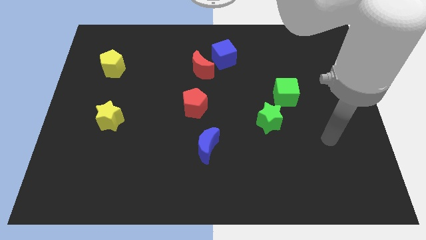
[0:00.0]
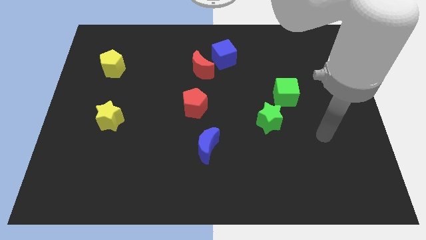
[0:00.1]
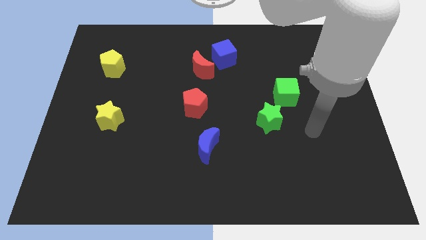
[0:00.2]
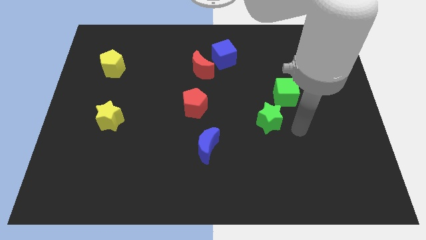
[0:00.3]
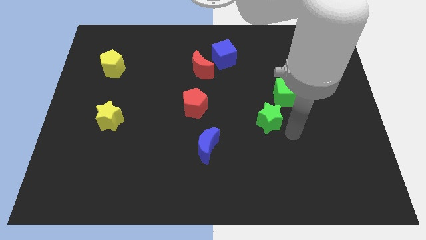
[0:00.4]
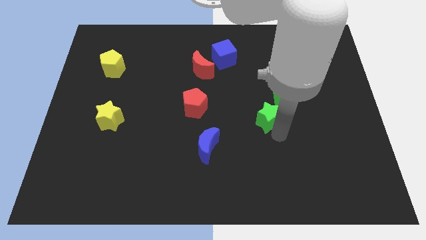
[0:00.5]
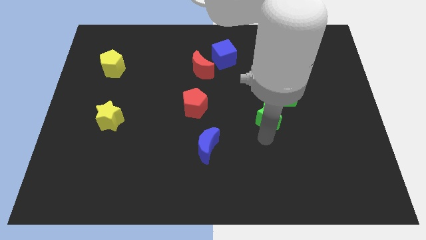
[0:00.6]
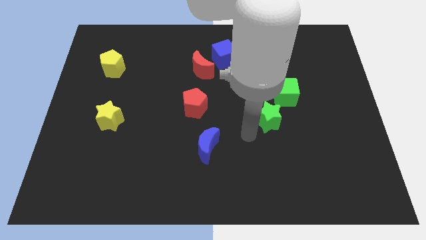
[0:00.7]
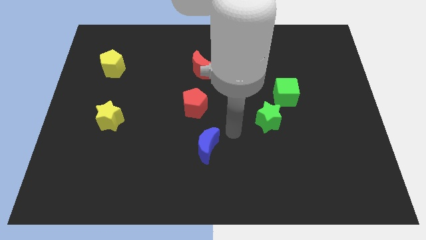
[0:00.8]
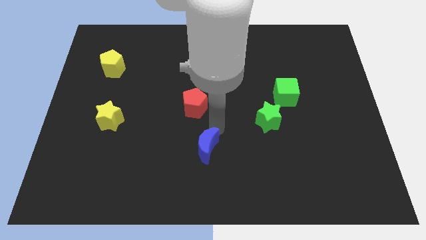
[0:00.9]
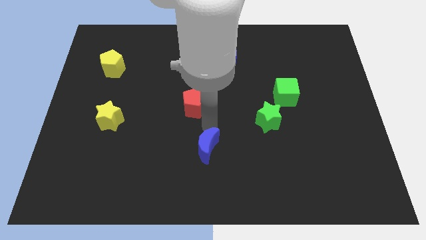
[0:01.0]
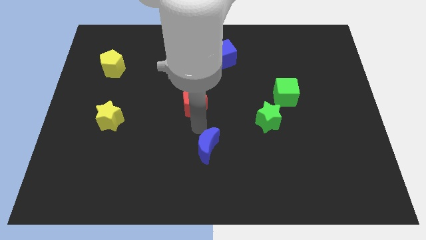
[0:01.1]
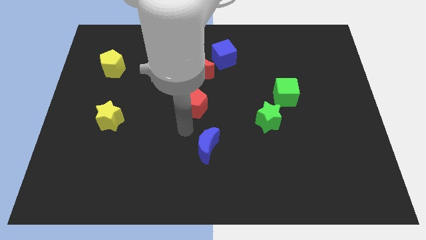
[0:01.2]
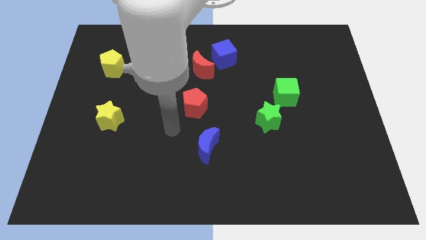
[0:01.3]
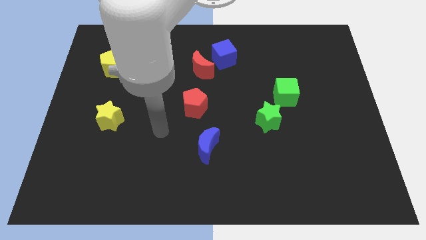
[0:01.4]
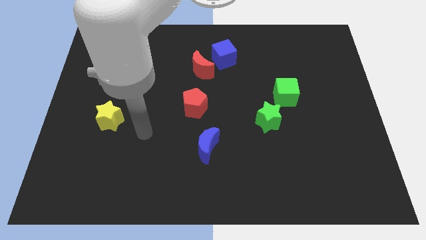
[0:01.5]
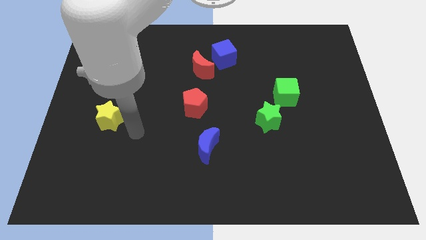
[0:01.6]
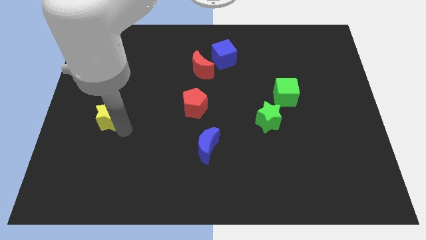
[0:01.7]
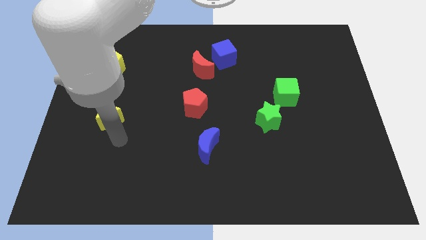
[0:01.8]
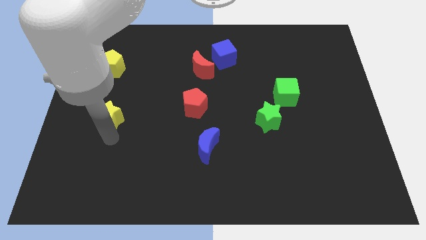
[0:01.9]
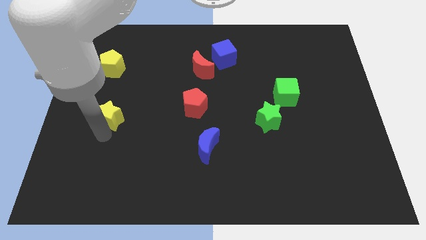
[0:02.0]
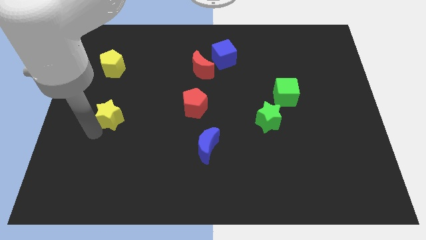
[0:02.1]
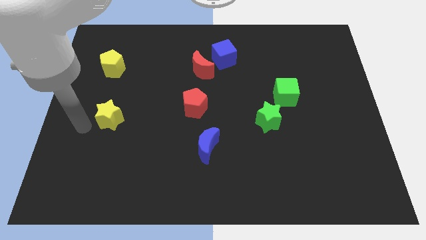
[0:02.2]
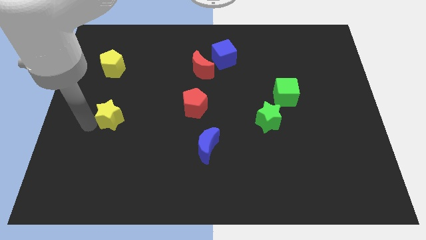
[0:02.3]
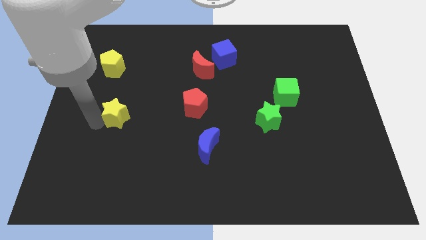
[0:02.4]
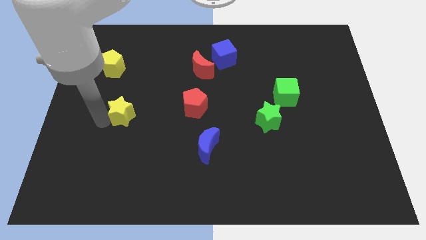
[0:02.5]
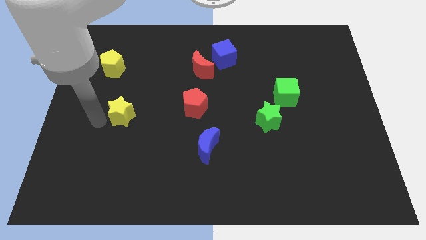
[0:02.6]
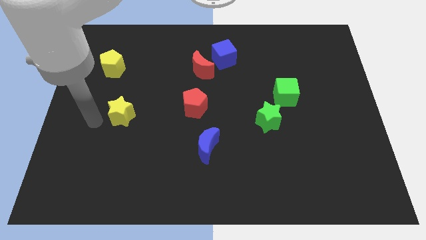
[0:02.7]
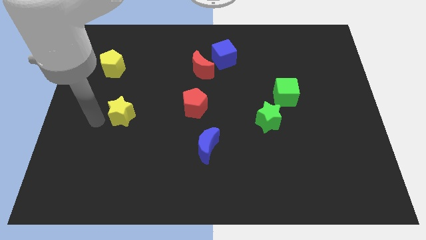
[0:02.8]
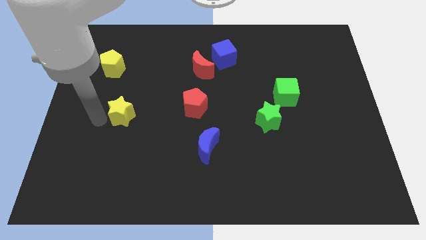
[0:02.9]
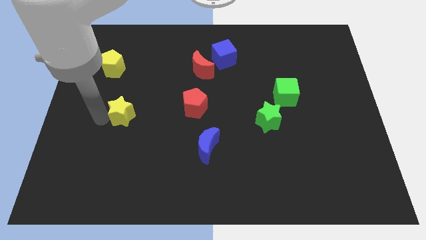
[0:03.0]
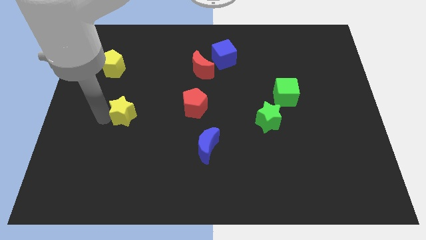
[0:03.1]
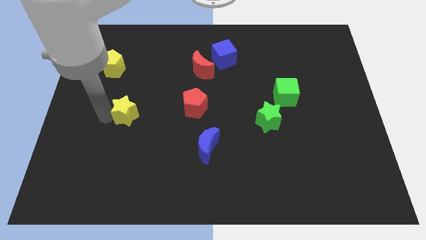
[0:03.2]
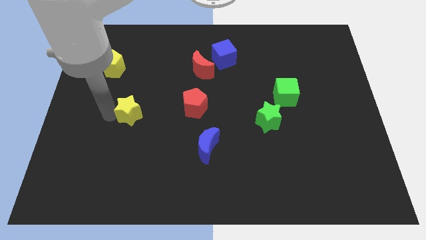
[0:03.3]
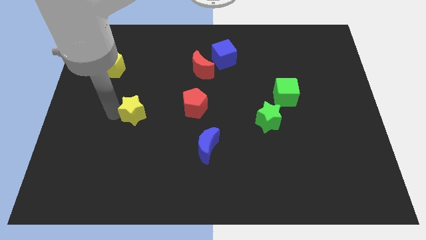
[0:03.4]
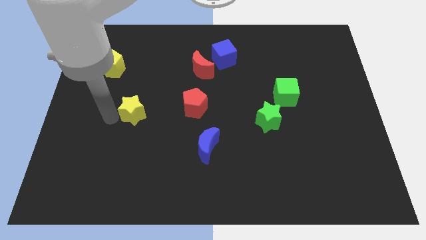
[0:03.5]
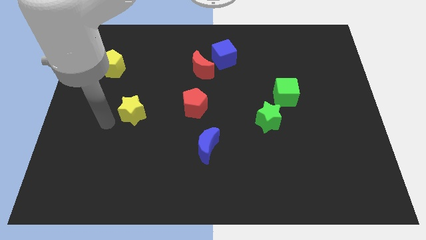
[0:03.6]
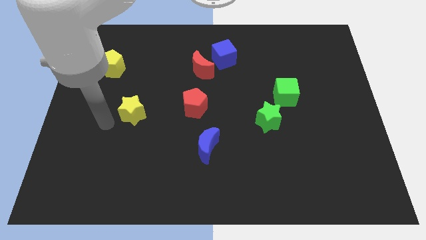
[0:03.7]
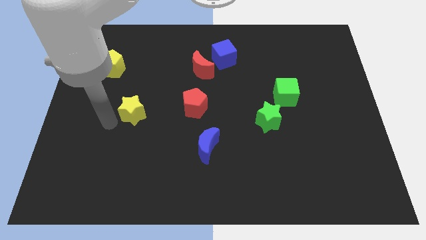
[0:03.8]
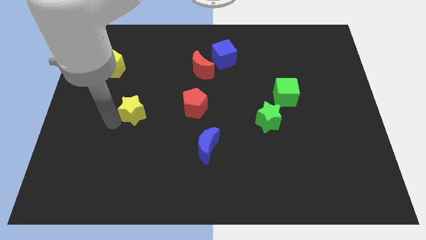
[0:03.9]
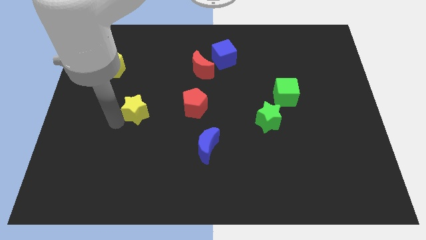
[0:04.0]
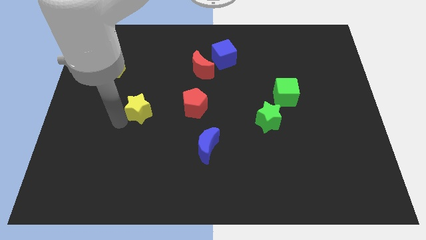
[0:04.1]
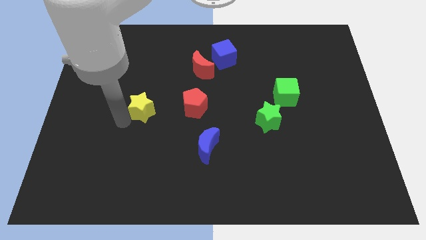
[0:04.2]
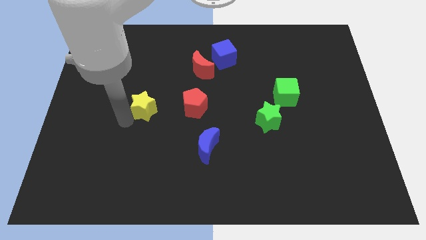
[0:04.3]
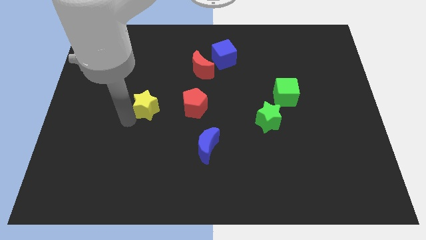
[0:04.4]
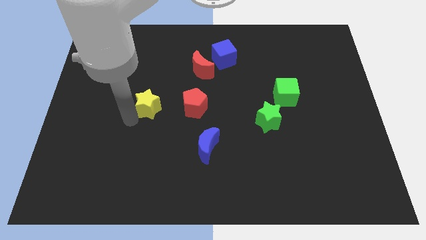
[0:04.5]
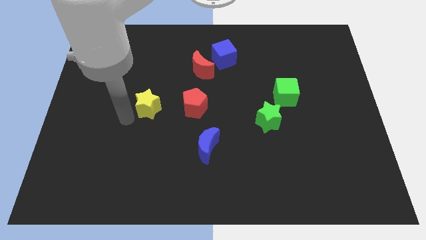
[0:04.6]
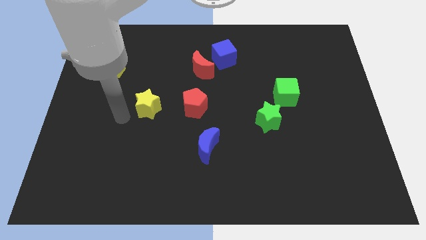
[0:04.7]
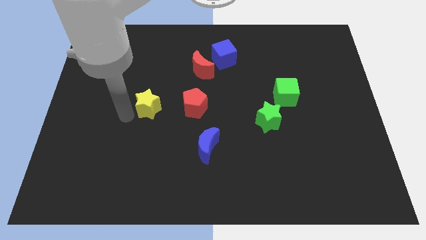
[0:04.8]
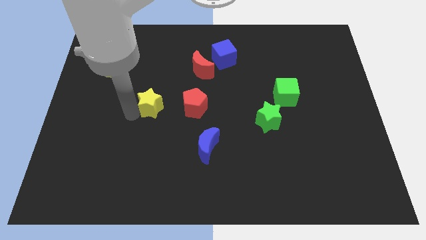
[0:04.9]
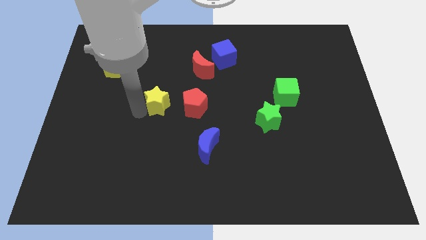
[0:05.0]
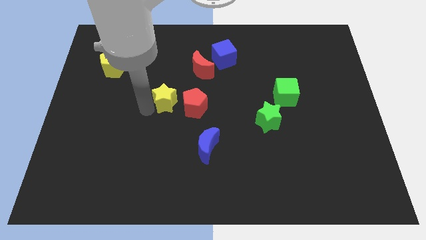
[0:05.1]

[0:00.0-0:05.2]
push the yellow star to the middle

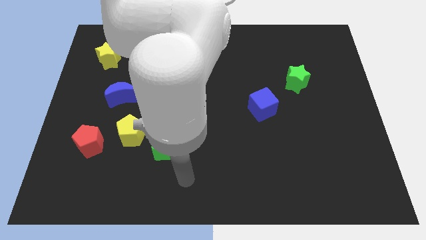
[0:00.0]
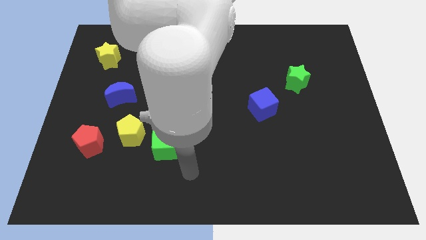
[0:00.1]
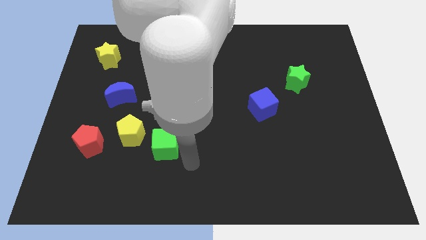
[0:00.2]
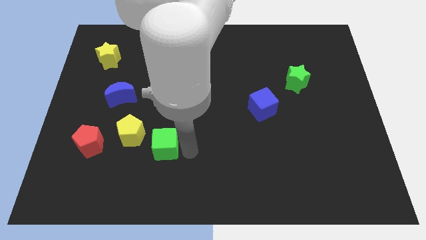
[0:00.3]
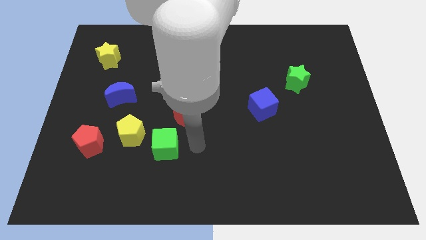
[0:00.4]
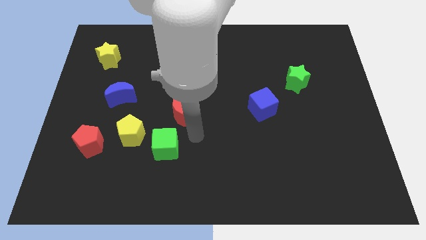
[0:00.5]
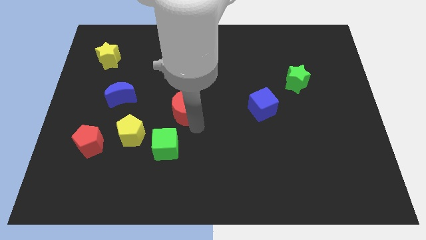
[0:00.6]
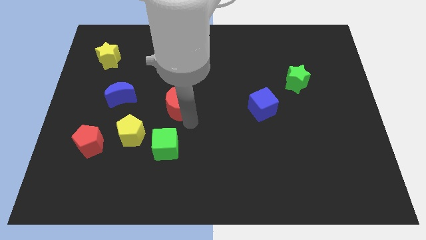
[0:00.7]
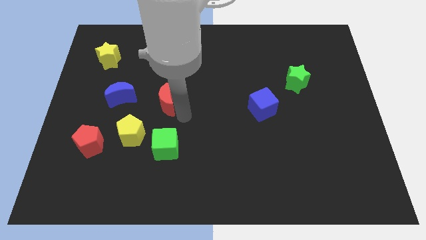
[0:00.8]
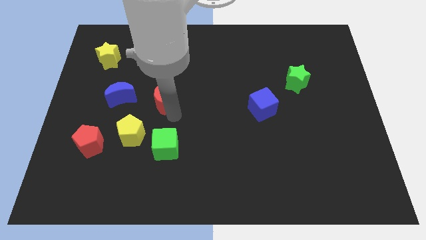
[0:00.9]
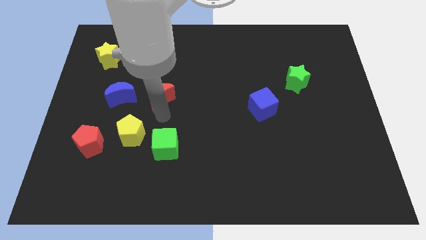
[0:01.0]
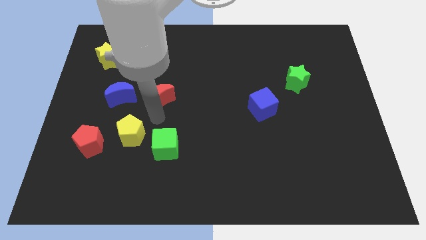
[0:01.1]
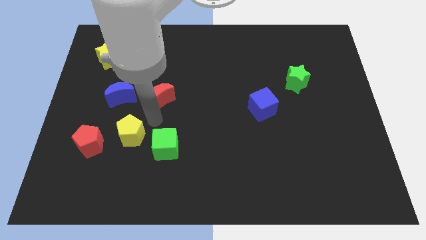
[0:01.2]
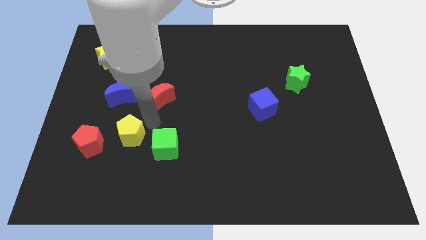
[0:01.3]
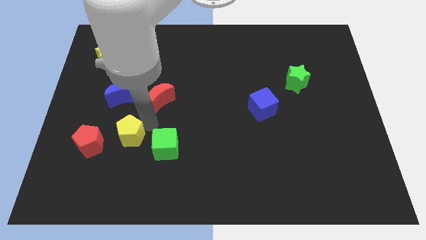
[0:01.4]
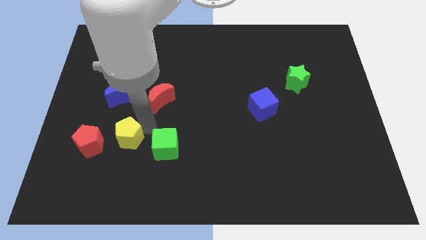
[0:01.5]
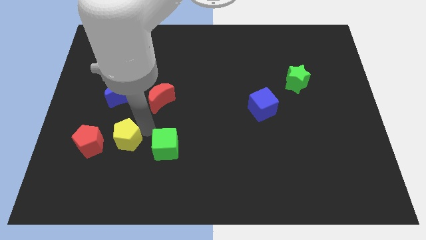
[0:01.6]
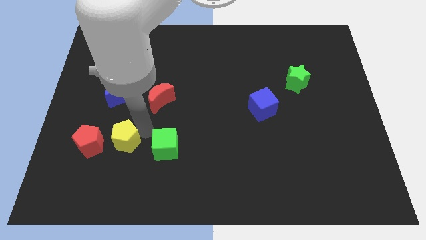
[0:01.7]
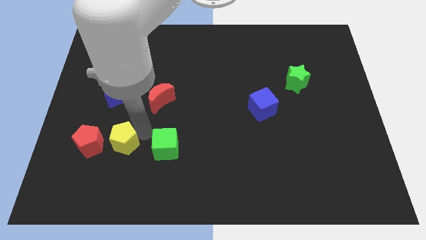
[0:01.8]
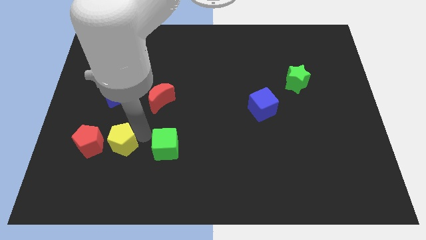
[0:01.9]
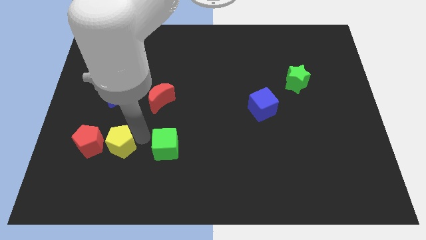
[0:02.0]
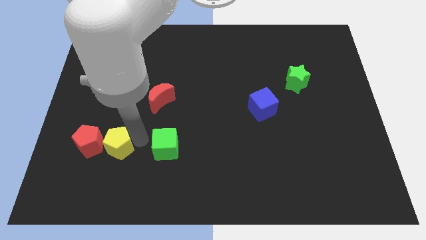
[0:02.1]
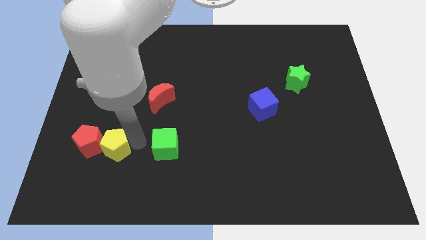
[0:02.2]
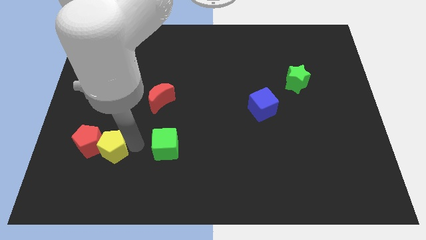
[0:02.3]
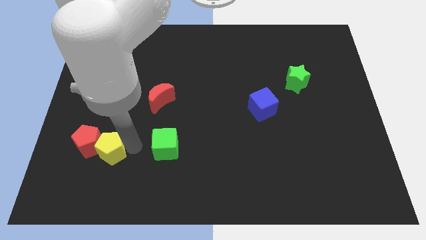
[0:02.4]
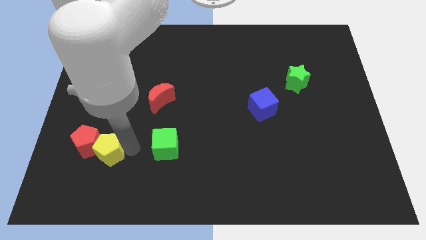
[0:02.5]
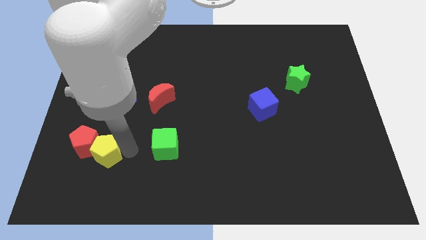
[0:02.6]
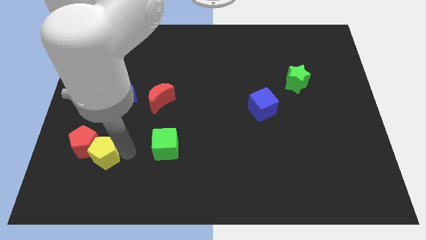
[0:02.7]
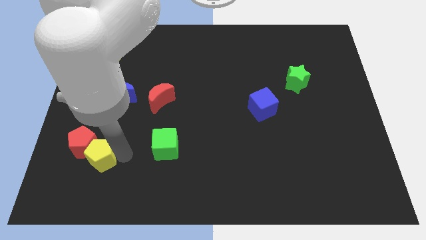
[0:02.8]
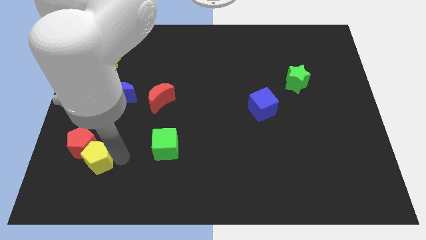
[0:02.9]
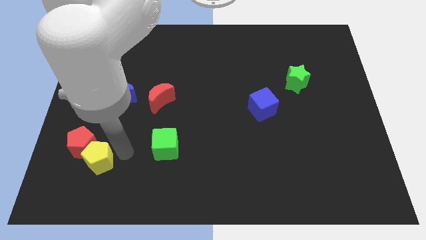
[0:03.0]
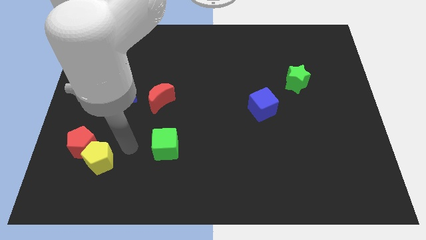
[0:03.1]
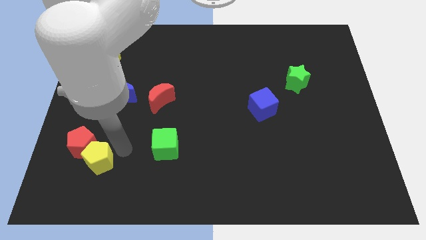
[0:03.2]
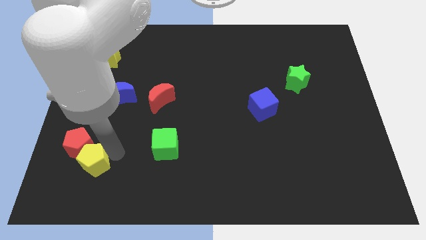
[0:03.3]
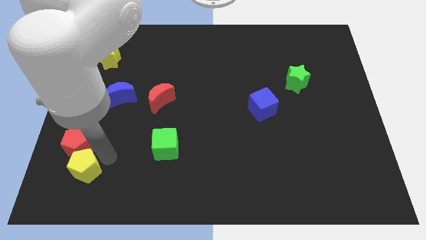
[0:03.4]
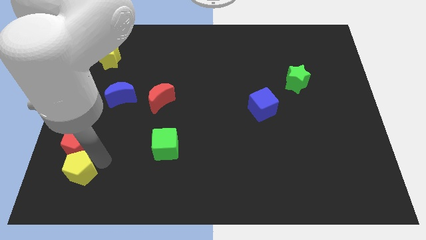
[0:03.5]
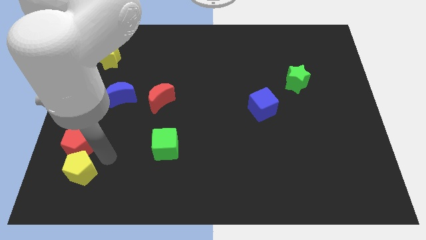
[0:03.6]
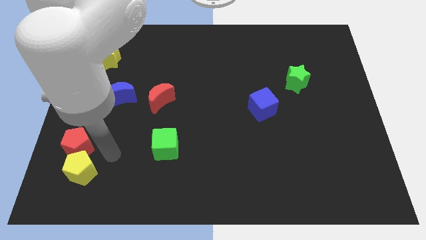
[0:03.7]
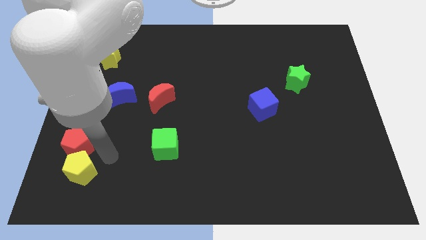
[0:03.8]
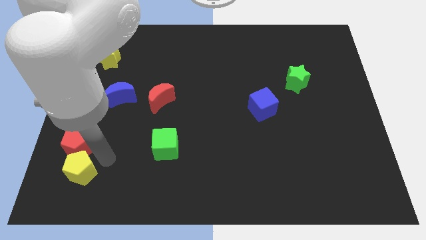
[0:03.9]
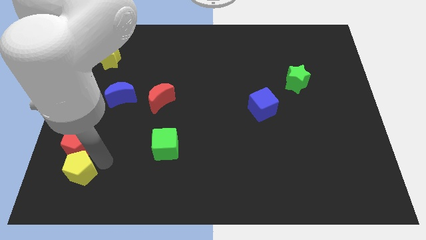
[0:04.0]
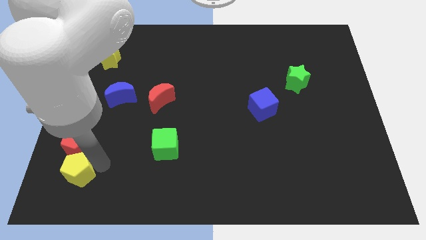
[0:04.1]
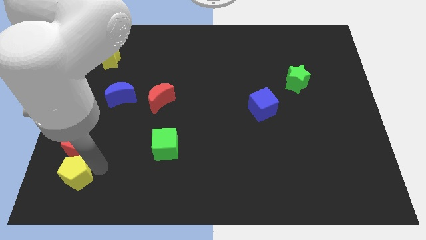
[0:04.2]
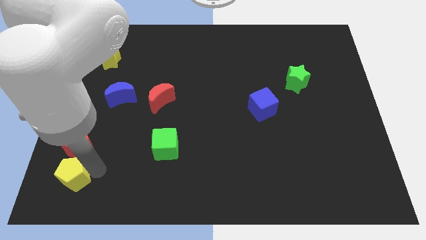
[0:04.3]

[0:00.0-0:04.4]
move the yellow pentagon to the bottom left corner
